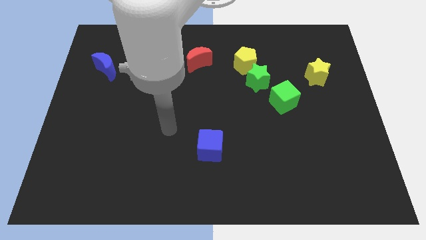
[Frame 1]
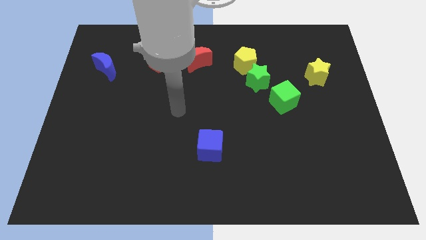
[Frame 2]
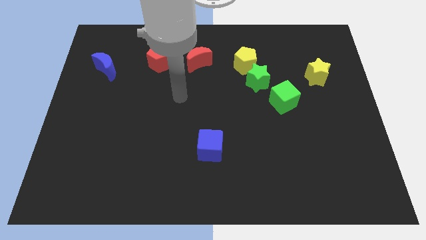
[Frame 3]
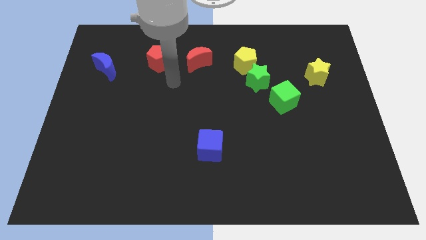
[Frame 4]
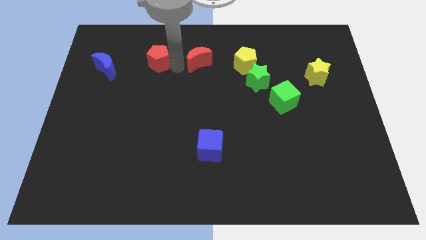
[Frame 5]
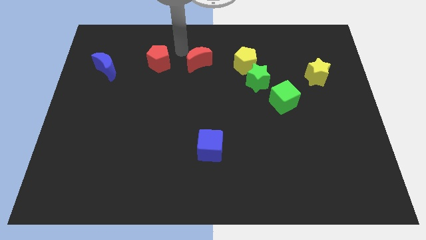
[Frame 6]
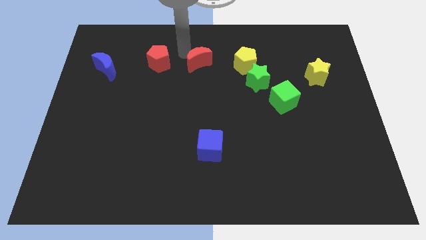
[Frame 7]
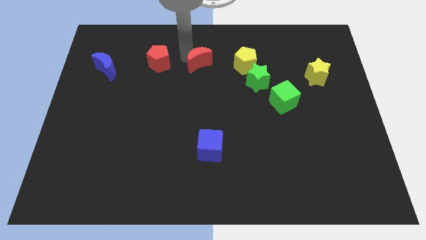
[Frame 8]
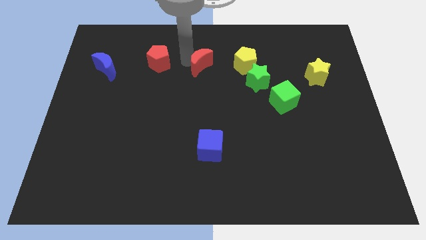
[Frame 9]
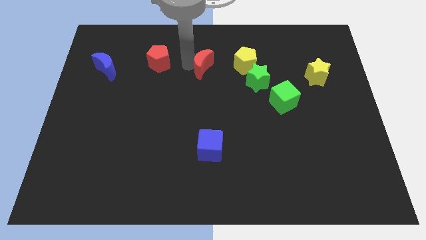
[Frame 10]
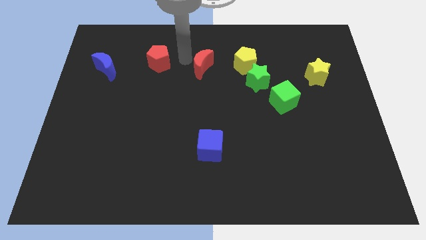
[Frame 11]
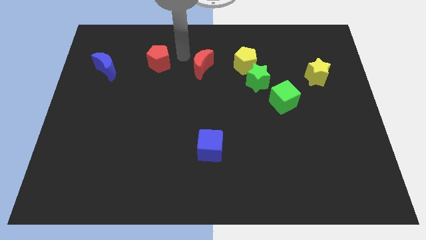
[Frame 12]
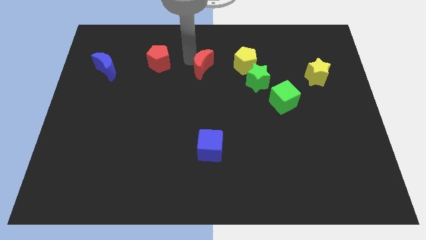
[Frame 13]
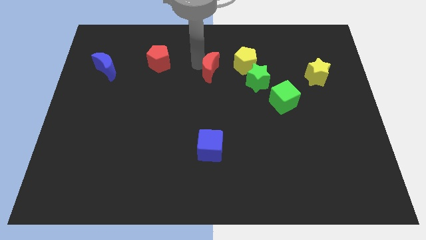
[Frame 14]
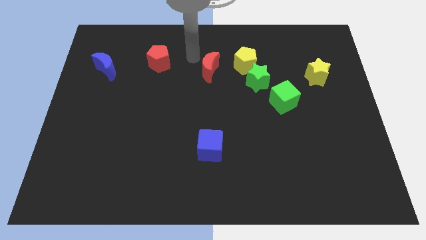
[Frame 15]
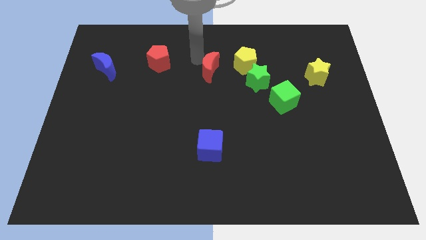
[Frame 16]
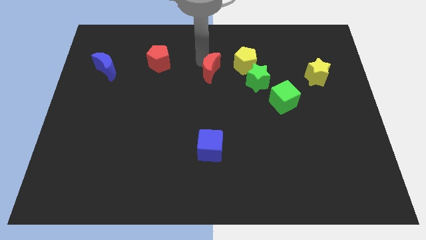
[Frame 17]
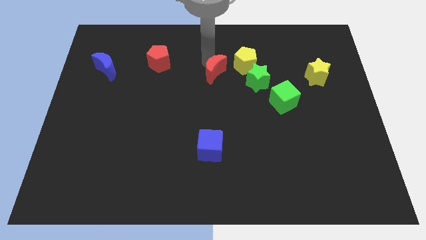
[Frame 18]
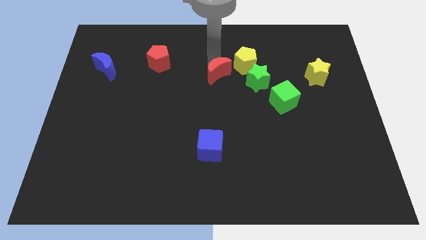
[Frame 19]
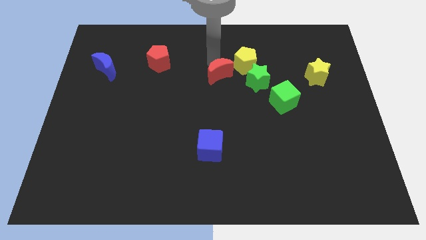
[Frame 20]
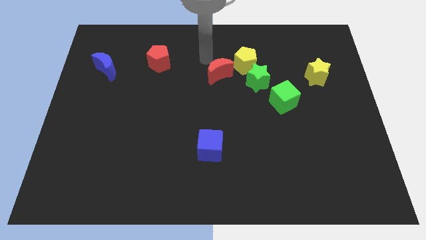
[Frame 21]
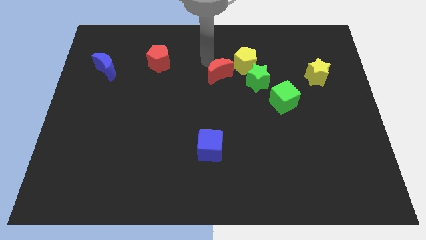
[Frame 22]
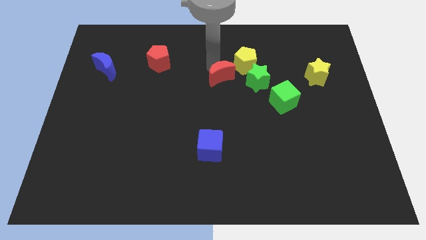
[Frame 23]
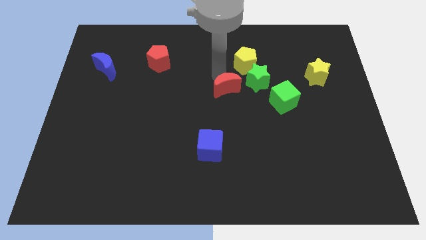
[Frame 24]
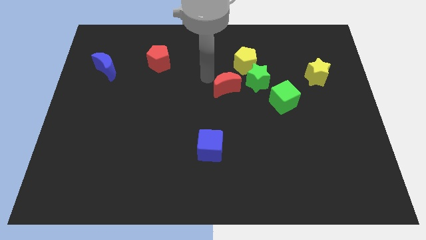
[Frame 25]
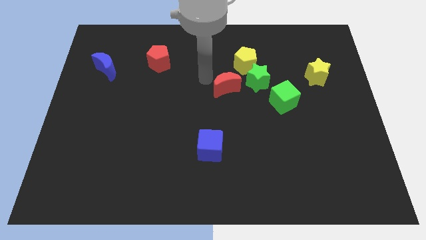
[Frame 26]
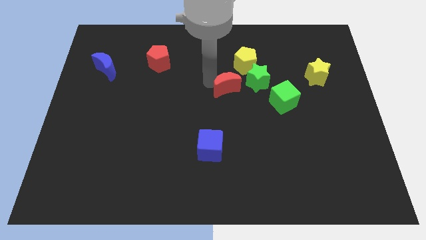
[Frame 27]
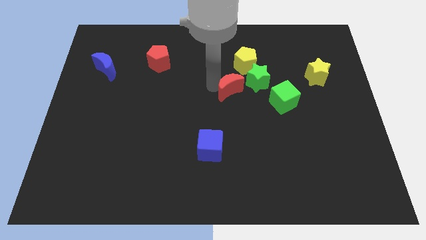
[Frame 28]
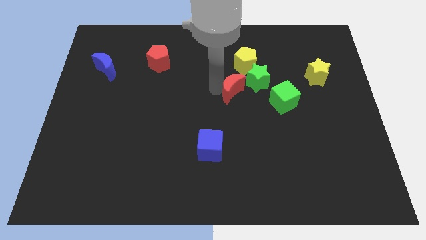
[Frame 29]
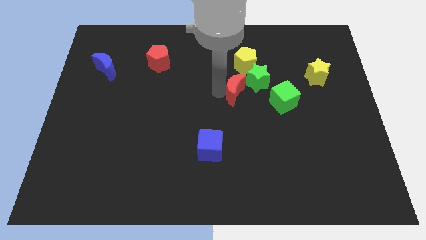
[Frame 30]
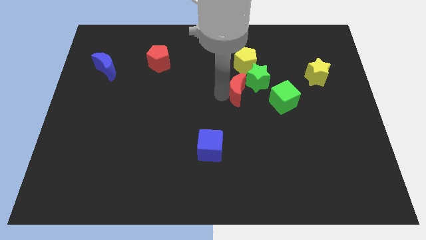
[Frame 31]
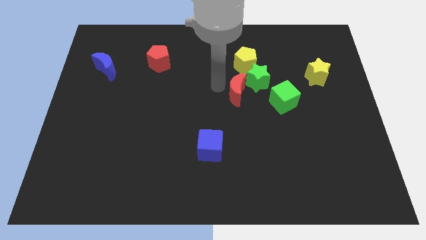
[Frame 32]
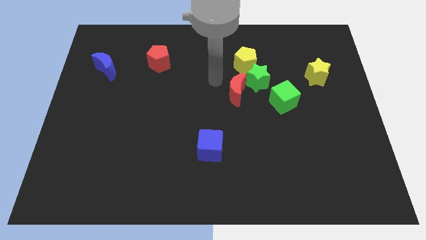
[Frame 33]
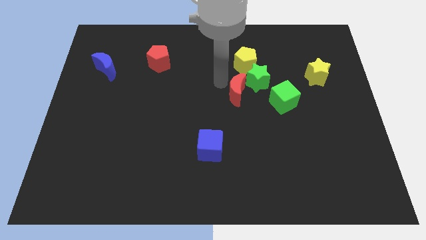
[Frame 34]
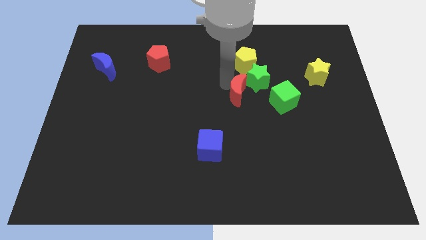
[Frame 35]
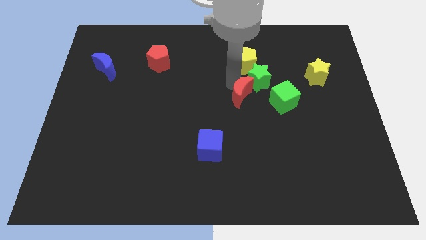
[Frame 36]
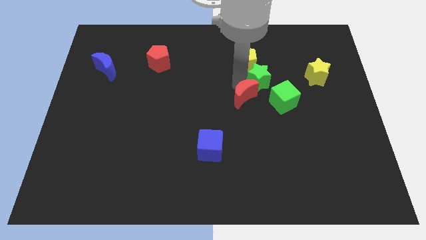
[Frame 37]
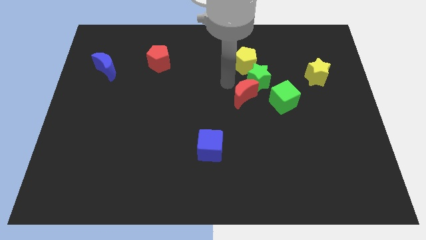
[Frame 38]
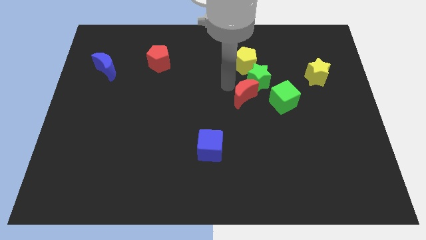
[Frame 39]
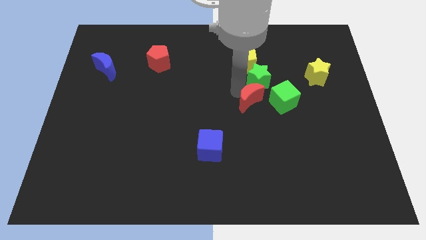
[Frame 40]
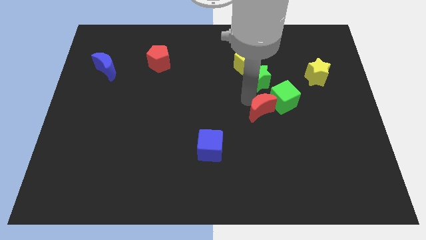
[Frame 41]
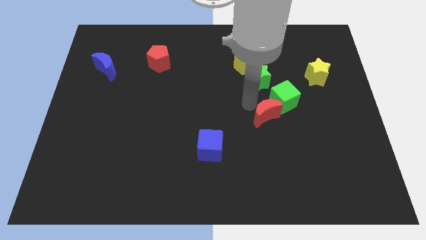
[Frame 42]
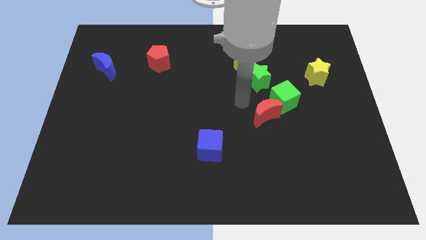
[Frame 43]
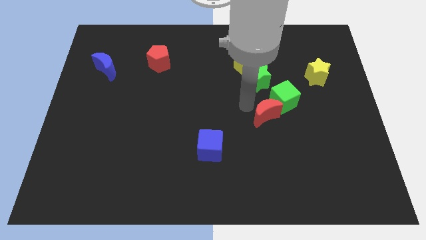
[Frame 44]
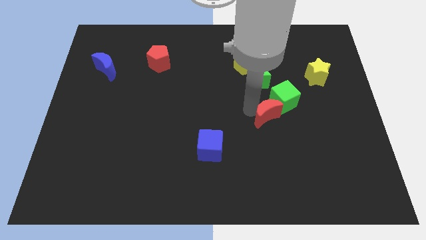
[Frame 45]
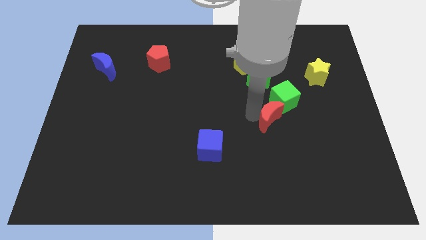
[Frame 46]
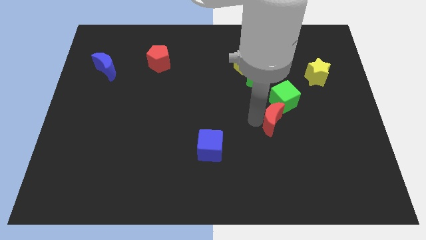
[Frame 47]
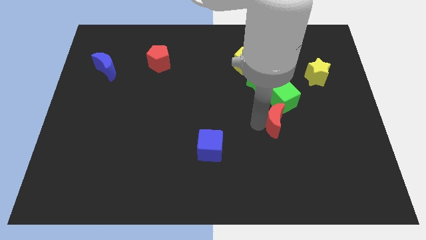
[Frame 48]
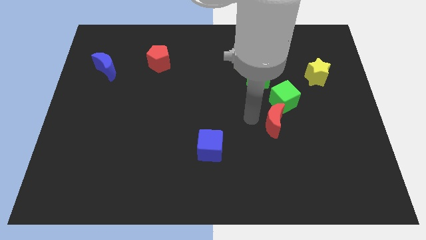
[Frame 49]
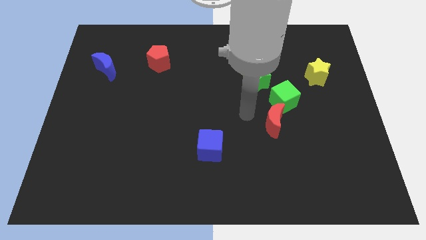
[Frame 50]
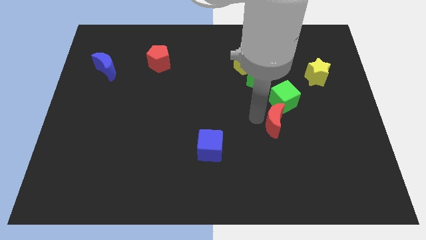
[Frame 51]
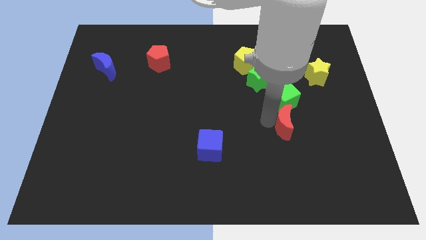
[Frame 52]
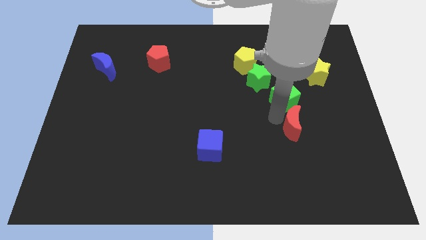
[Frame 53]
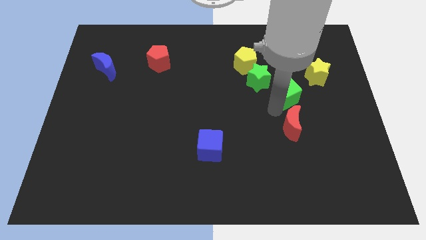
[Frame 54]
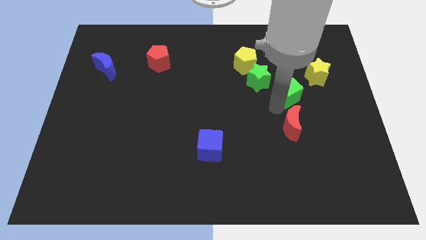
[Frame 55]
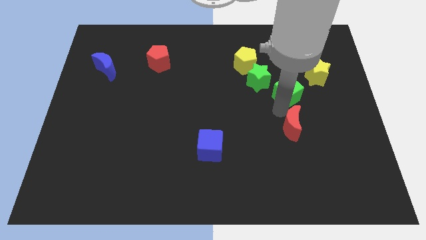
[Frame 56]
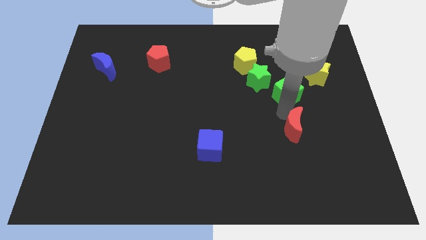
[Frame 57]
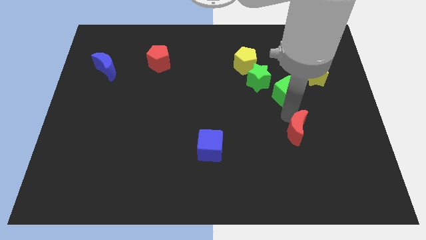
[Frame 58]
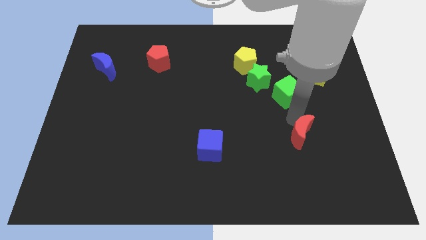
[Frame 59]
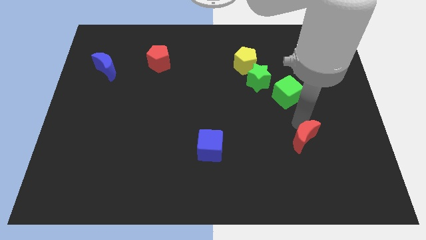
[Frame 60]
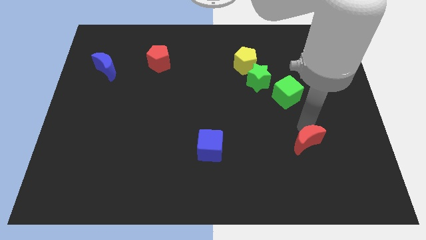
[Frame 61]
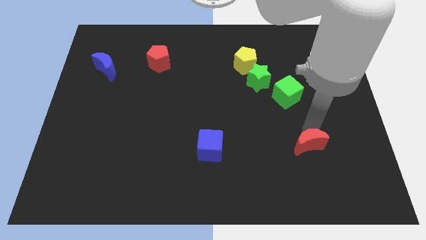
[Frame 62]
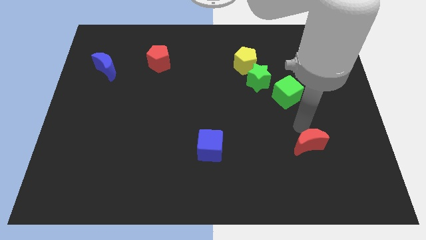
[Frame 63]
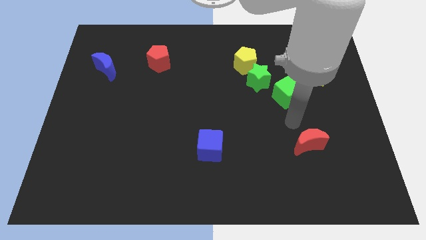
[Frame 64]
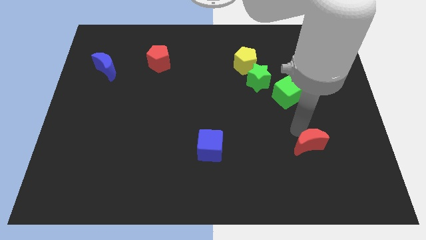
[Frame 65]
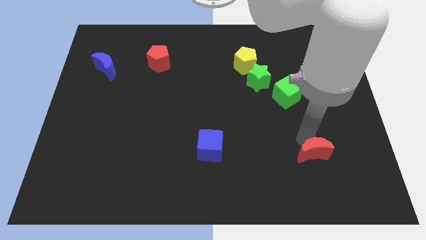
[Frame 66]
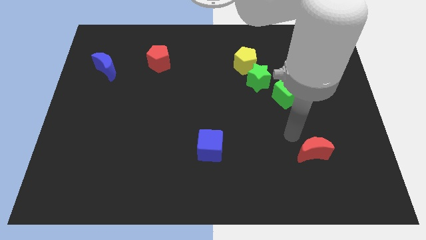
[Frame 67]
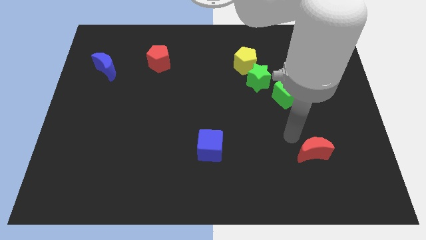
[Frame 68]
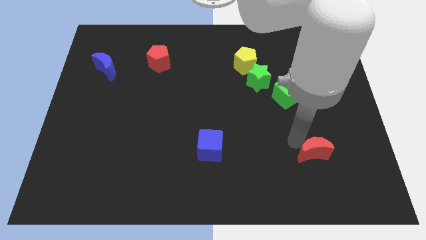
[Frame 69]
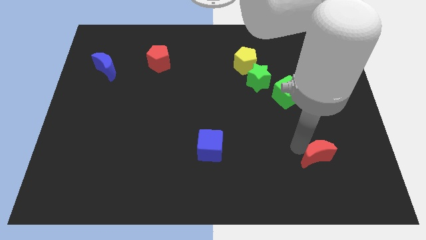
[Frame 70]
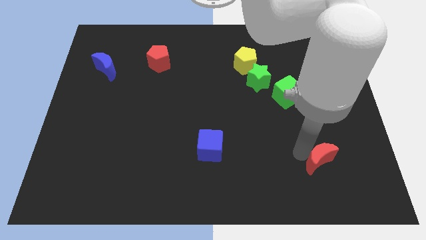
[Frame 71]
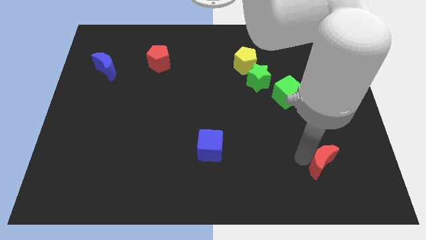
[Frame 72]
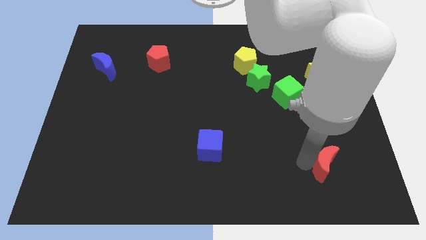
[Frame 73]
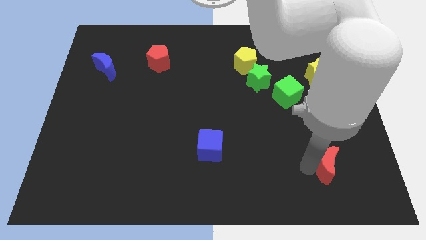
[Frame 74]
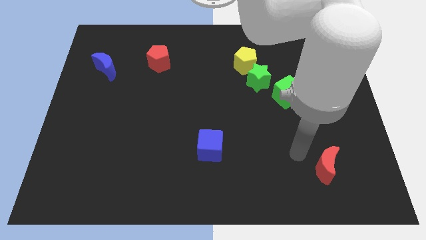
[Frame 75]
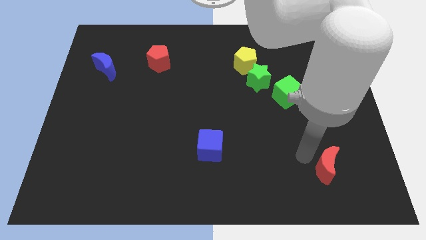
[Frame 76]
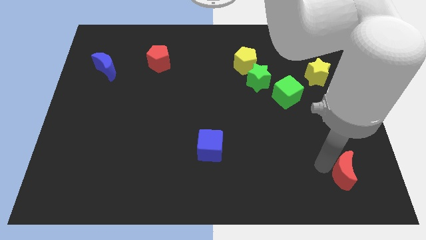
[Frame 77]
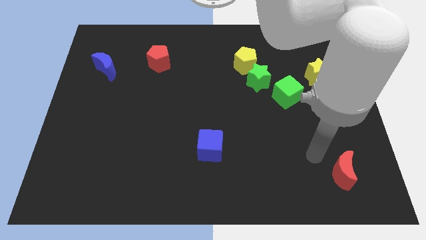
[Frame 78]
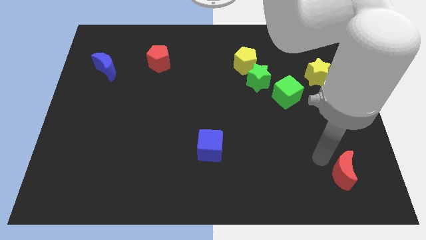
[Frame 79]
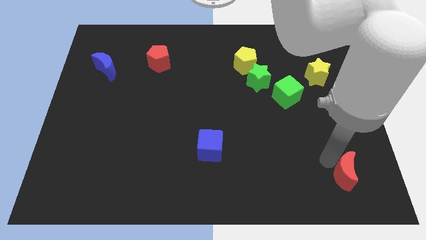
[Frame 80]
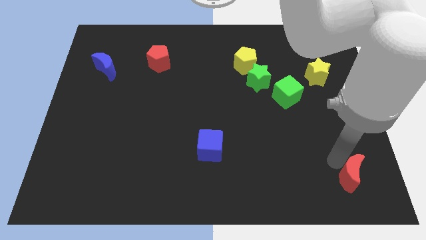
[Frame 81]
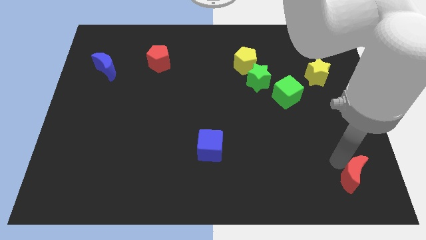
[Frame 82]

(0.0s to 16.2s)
push the red moon to the bottom right of the board
